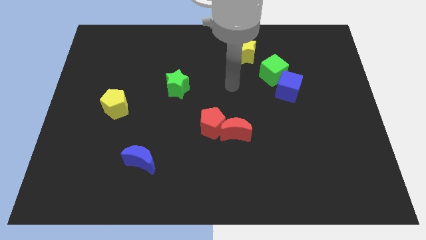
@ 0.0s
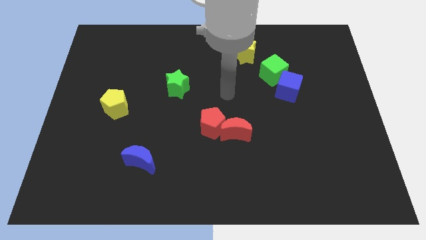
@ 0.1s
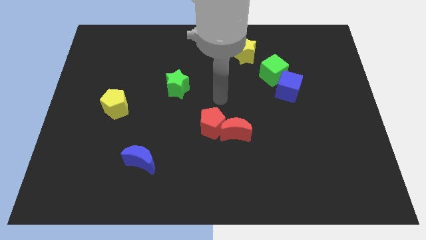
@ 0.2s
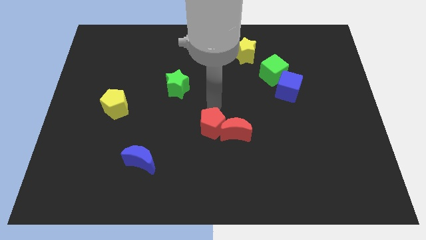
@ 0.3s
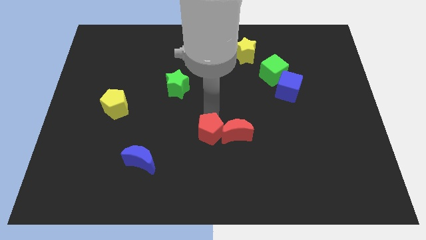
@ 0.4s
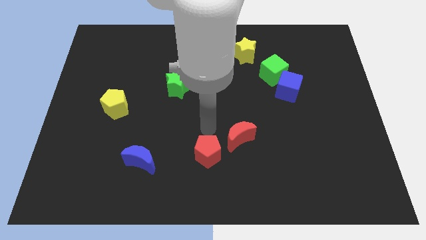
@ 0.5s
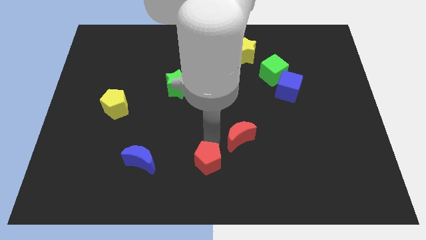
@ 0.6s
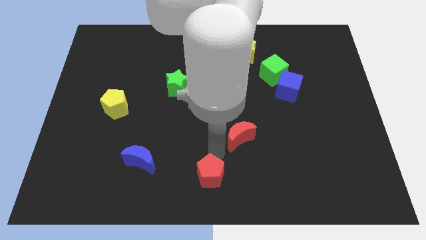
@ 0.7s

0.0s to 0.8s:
move the red moon away from the red pentagon

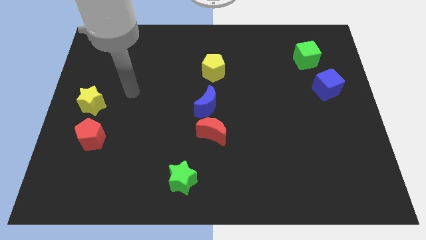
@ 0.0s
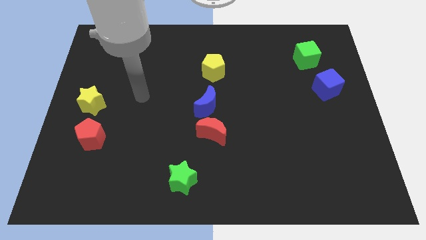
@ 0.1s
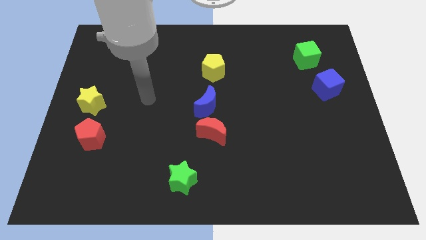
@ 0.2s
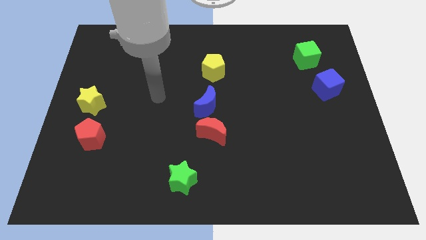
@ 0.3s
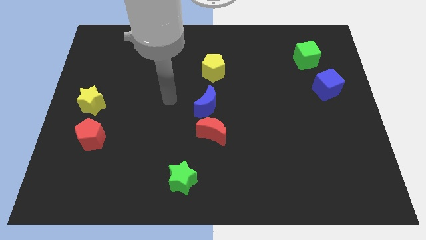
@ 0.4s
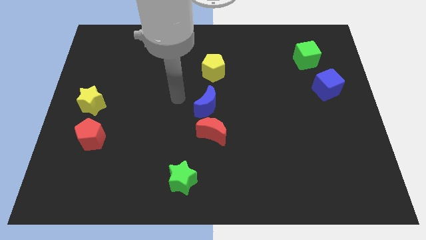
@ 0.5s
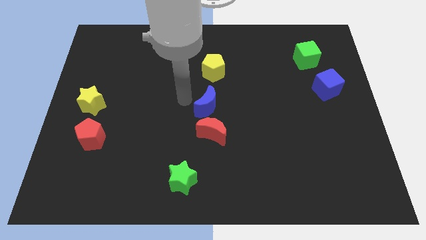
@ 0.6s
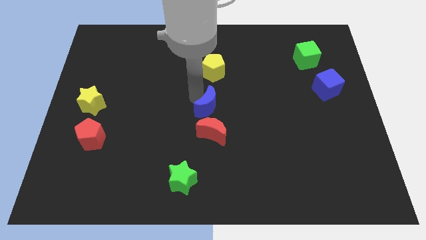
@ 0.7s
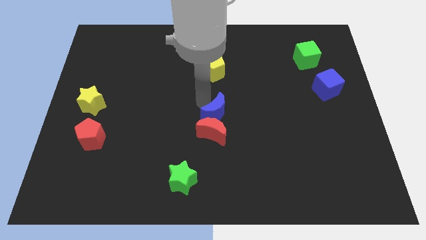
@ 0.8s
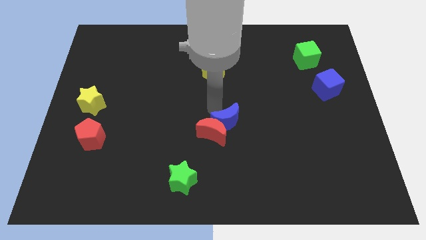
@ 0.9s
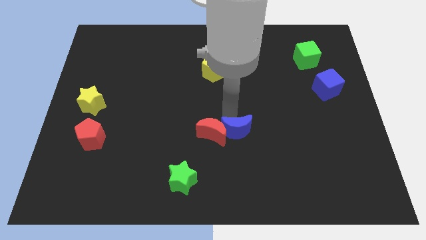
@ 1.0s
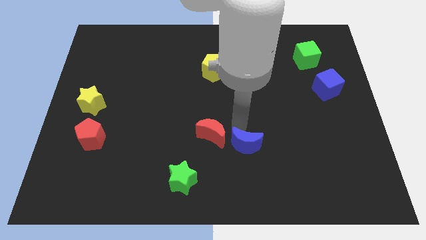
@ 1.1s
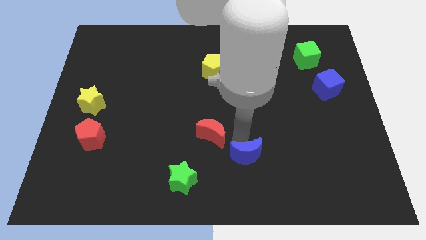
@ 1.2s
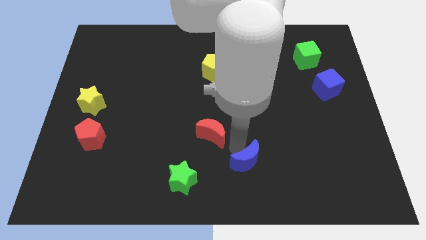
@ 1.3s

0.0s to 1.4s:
separate the red moon from the blue moon

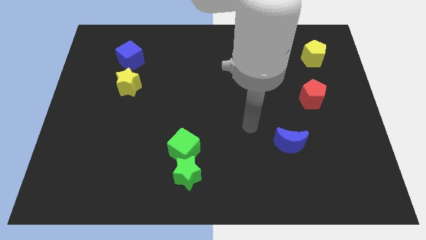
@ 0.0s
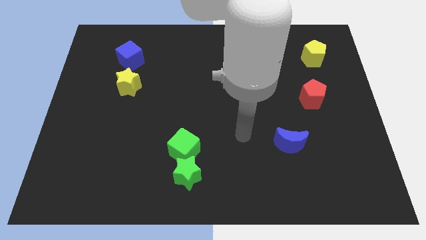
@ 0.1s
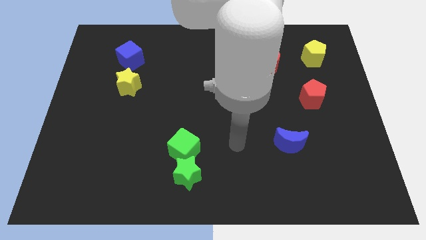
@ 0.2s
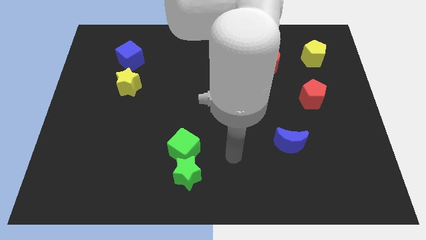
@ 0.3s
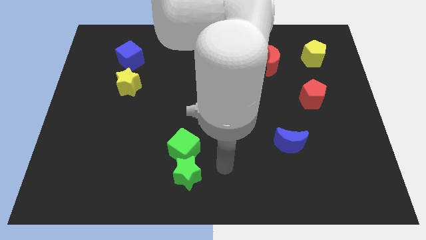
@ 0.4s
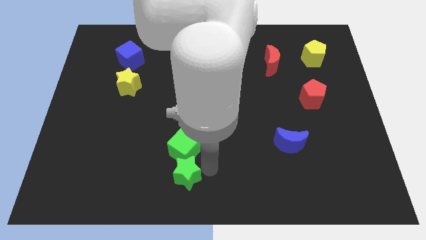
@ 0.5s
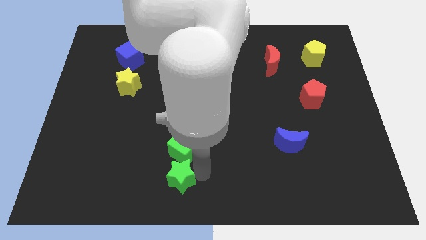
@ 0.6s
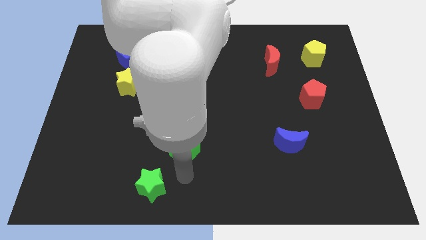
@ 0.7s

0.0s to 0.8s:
move the green cube away from the green star

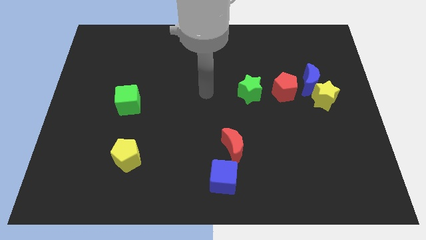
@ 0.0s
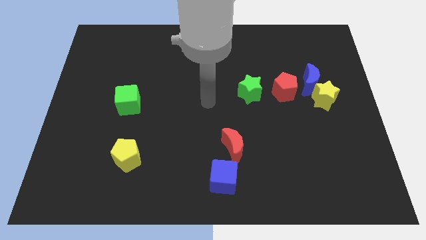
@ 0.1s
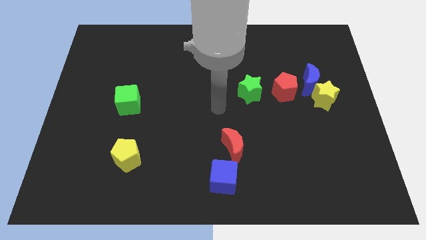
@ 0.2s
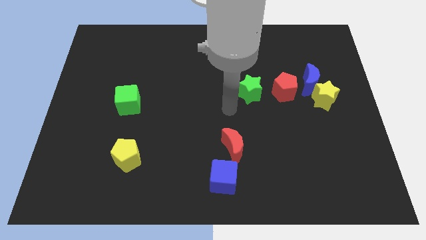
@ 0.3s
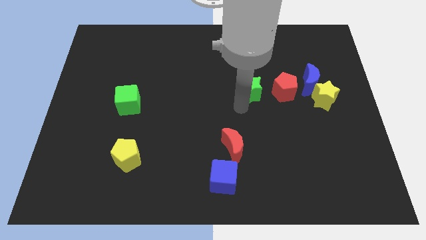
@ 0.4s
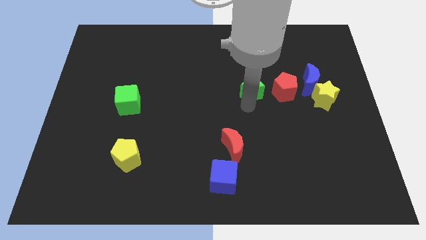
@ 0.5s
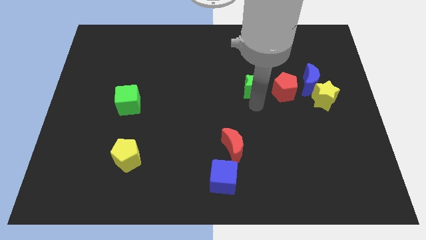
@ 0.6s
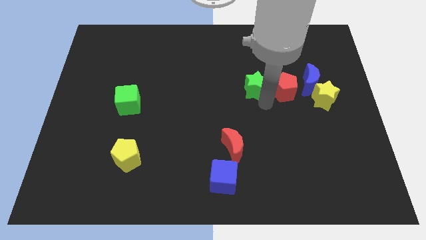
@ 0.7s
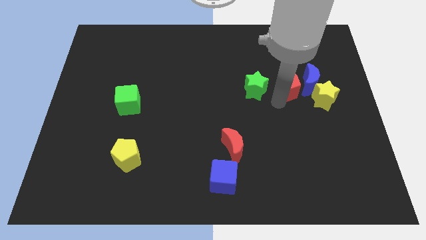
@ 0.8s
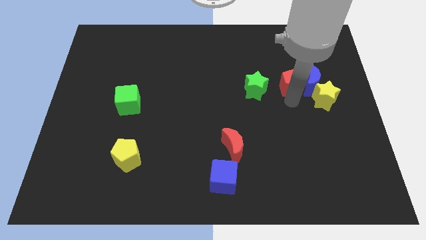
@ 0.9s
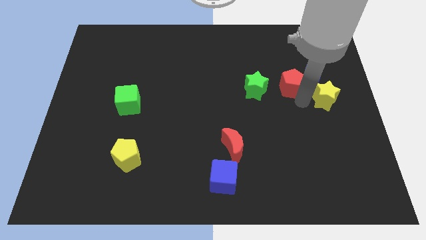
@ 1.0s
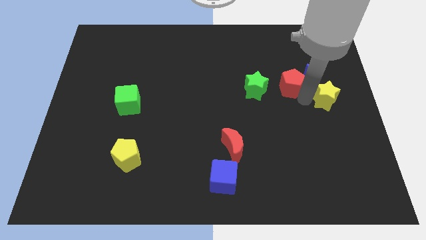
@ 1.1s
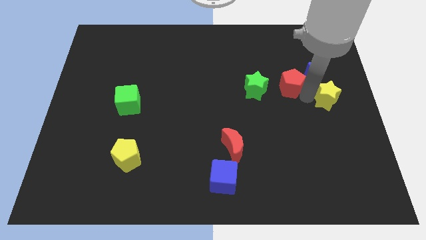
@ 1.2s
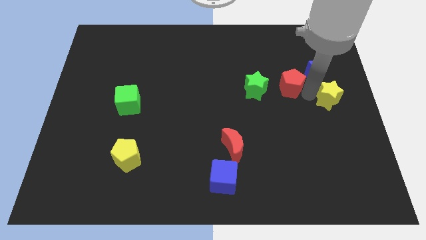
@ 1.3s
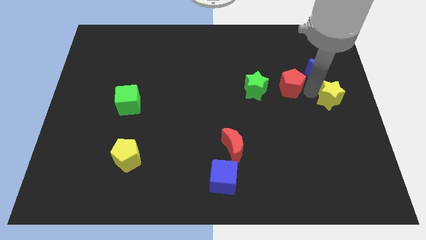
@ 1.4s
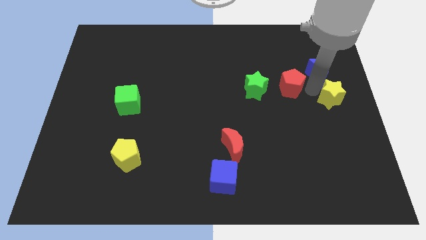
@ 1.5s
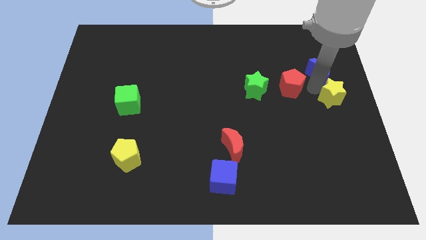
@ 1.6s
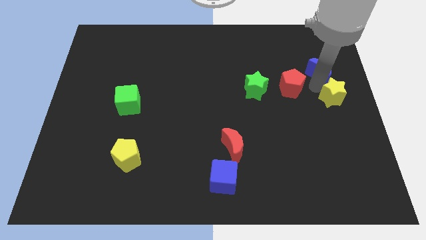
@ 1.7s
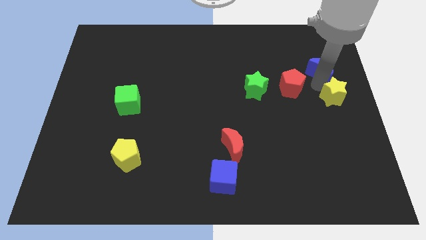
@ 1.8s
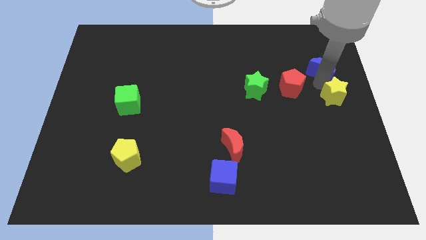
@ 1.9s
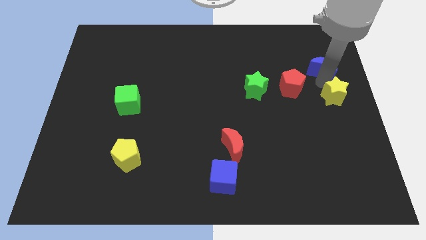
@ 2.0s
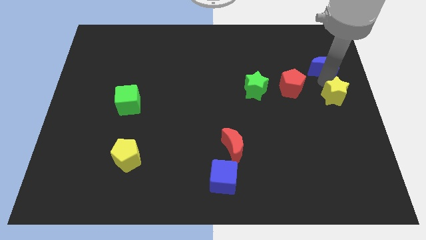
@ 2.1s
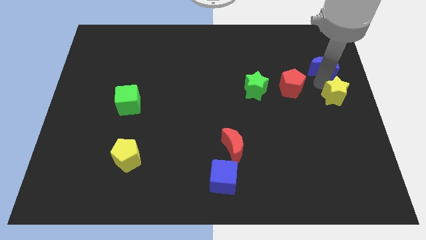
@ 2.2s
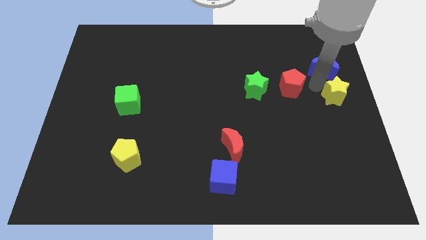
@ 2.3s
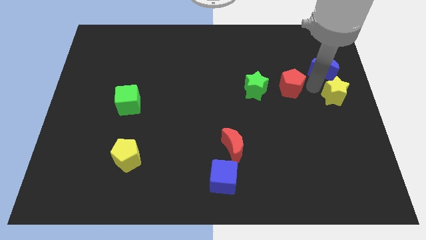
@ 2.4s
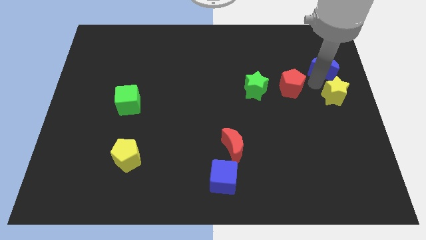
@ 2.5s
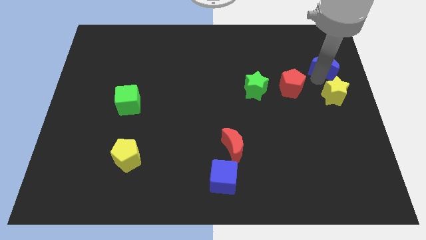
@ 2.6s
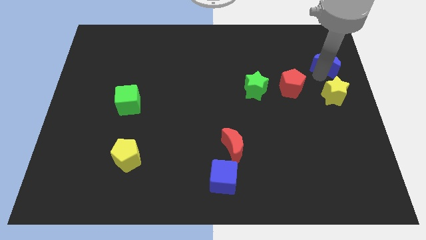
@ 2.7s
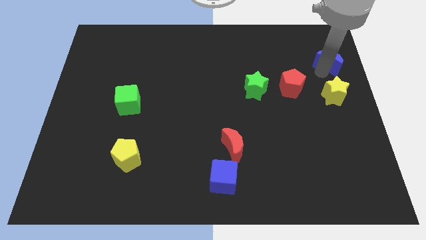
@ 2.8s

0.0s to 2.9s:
pull the blue moon apart from the yellow star and red pentagon

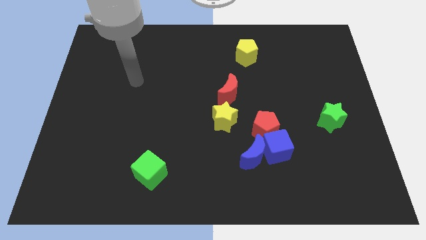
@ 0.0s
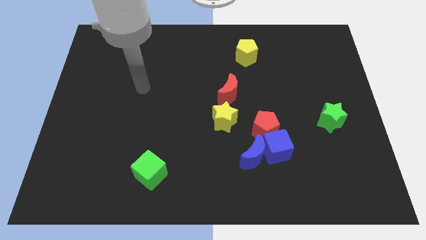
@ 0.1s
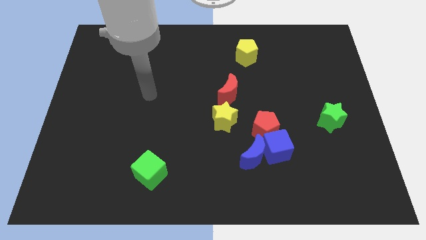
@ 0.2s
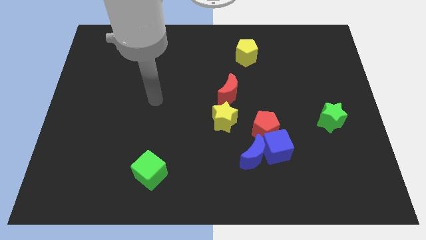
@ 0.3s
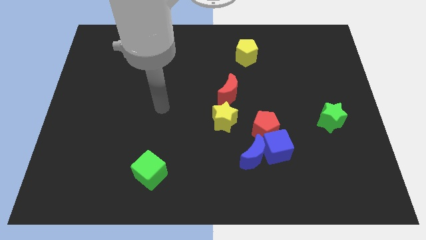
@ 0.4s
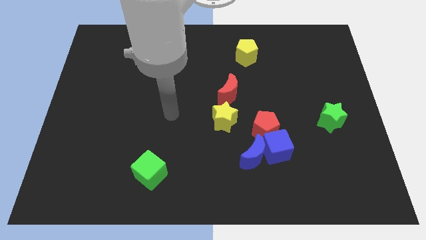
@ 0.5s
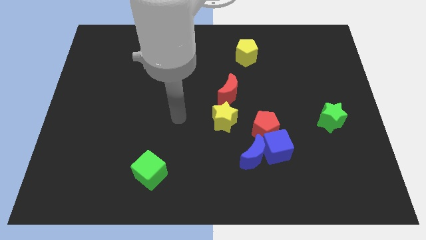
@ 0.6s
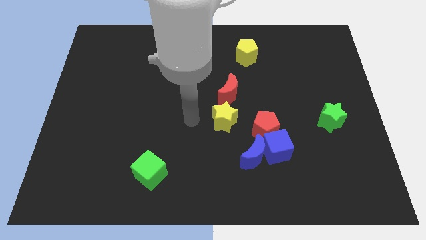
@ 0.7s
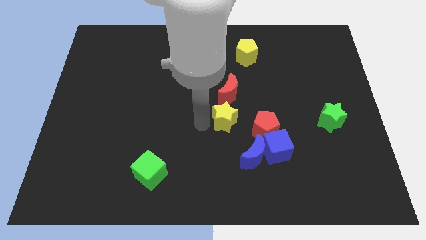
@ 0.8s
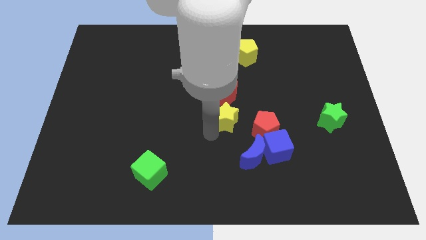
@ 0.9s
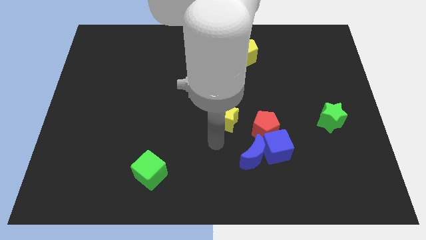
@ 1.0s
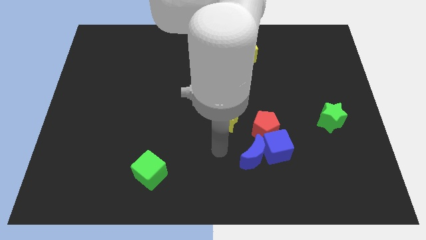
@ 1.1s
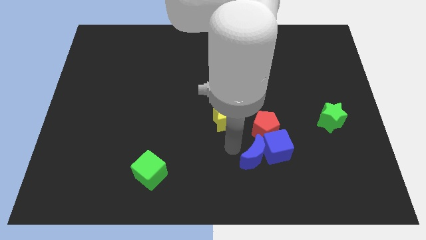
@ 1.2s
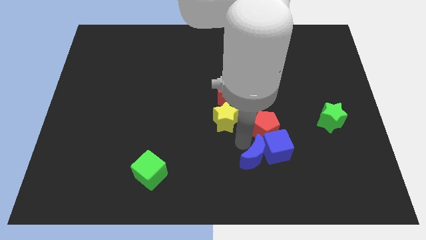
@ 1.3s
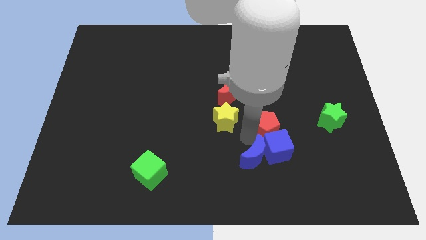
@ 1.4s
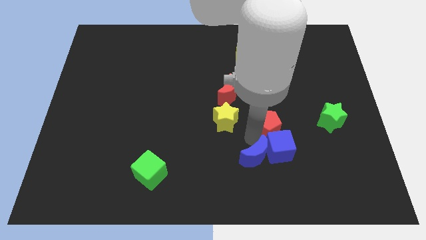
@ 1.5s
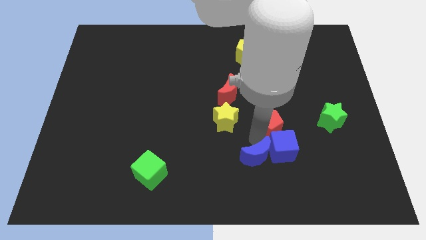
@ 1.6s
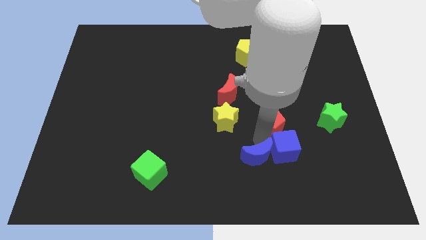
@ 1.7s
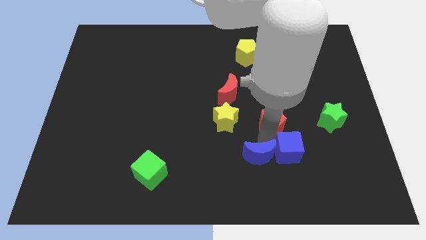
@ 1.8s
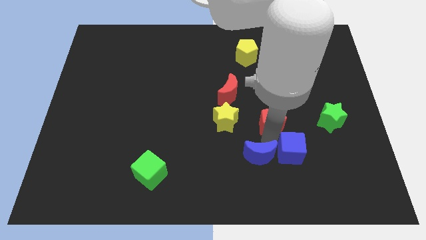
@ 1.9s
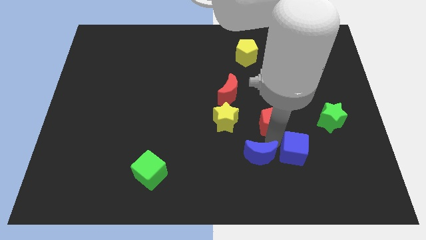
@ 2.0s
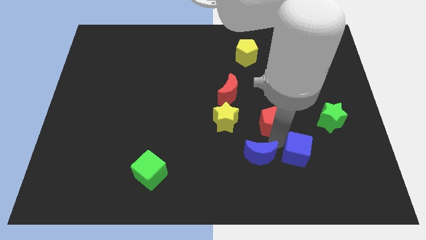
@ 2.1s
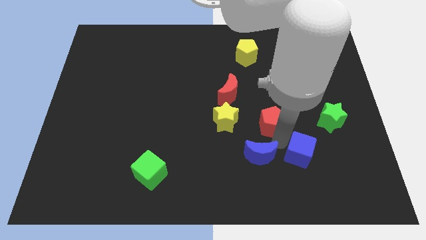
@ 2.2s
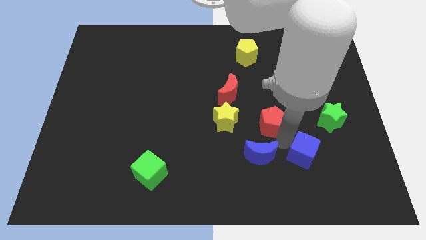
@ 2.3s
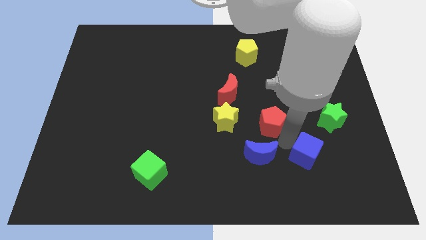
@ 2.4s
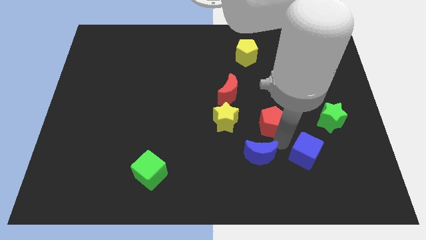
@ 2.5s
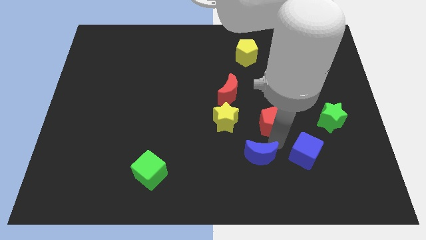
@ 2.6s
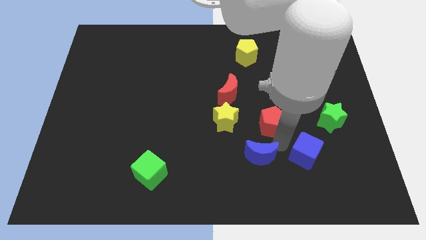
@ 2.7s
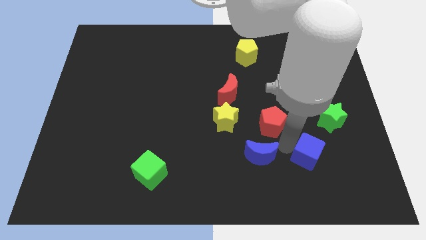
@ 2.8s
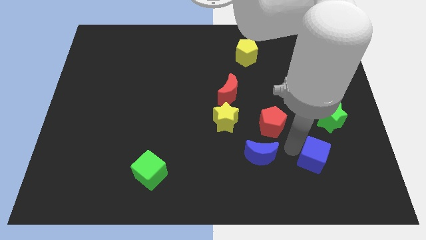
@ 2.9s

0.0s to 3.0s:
move the blue cube away from the blue moon and red pentagon

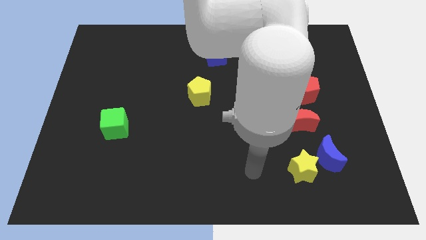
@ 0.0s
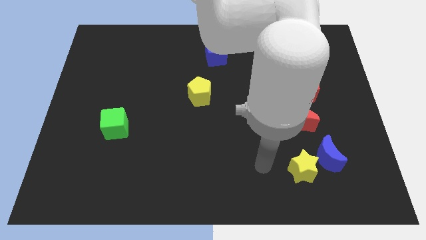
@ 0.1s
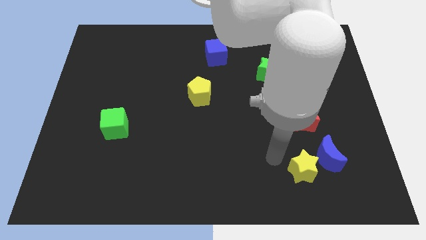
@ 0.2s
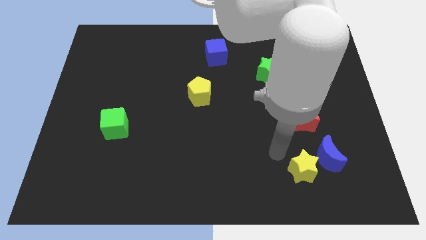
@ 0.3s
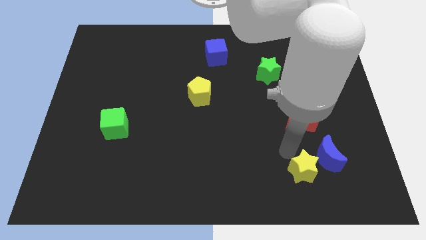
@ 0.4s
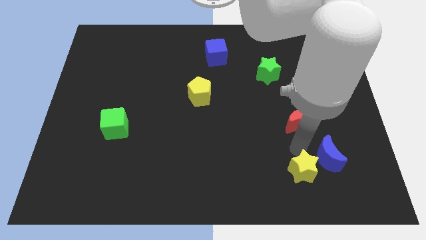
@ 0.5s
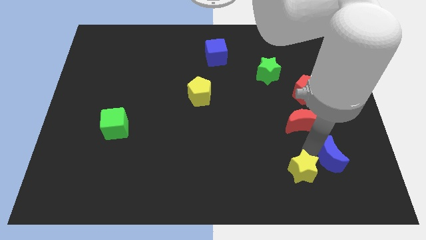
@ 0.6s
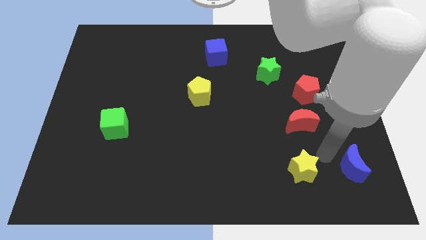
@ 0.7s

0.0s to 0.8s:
move the yellow star away from the blue moon
